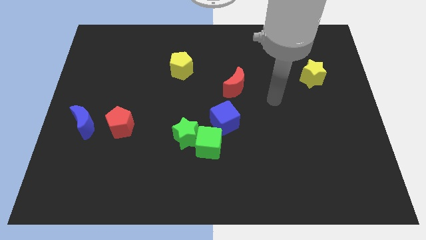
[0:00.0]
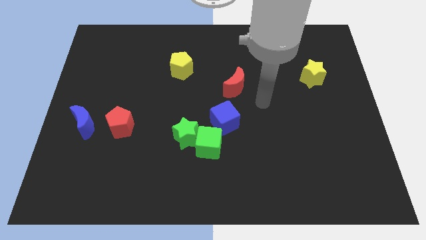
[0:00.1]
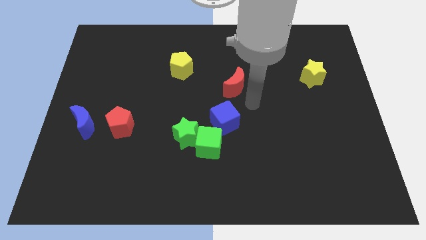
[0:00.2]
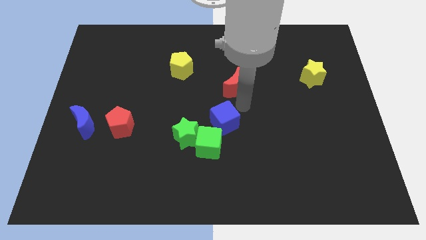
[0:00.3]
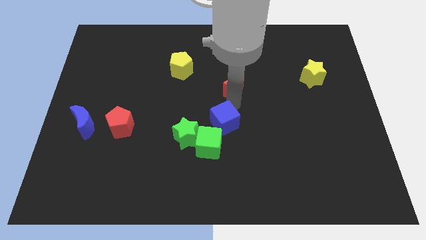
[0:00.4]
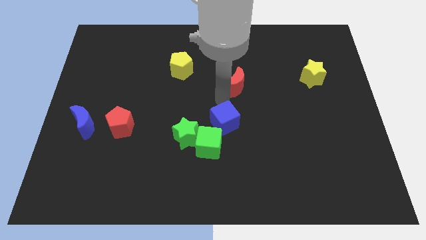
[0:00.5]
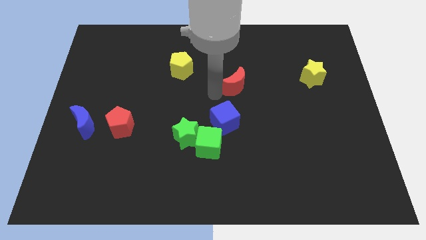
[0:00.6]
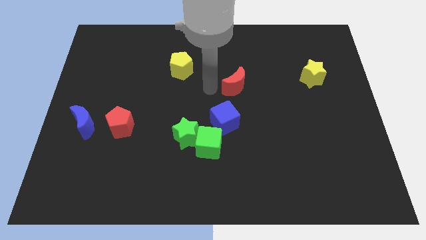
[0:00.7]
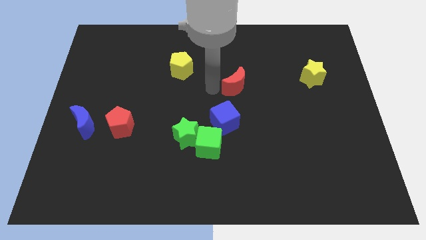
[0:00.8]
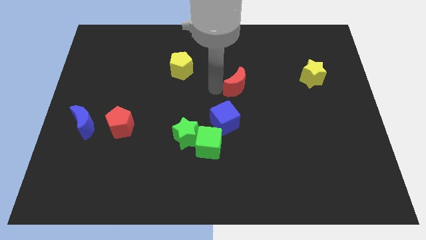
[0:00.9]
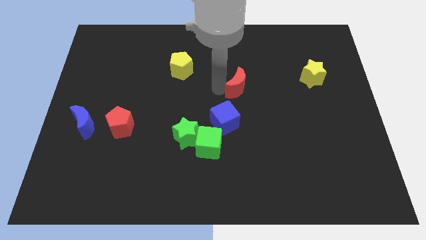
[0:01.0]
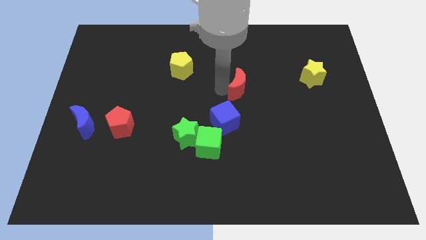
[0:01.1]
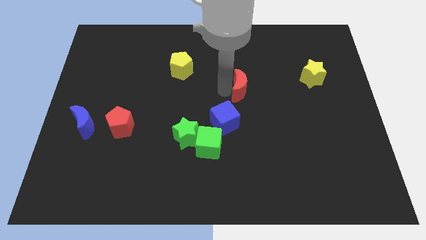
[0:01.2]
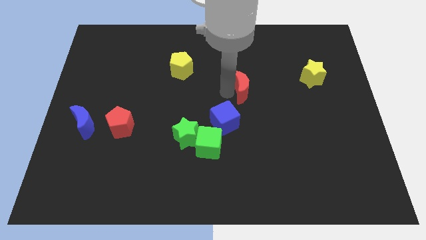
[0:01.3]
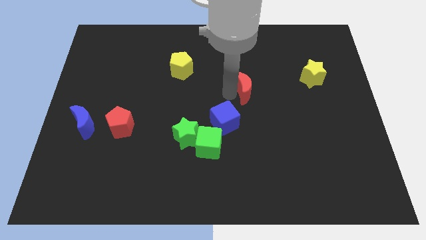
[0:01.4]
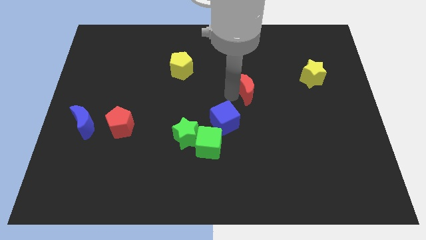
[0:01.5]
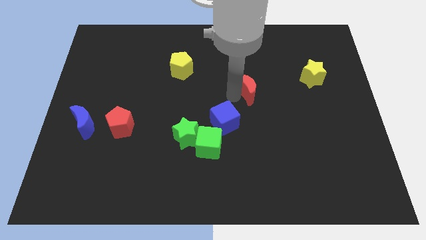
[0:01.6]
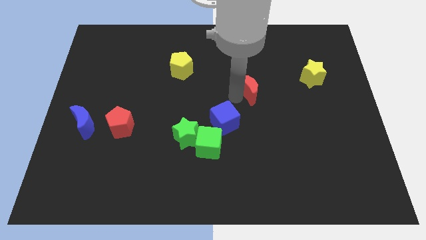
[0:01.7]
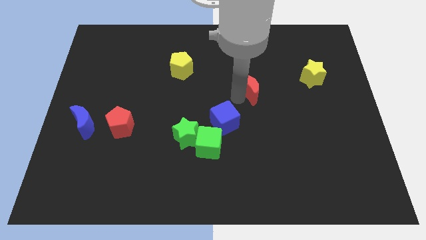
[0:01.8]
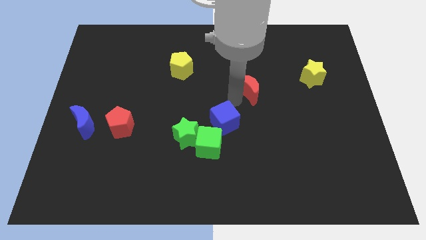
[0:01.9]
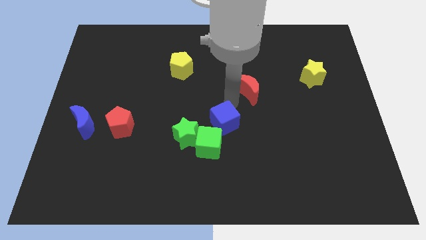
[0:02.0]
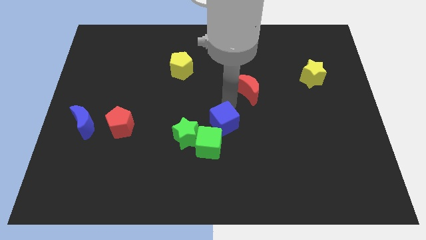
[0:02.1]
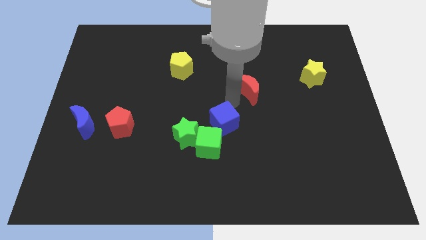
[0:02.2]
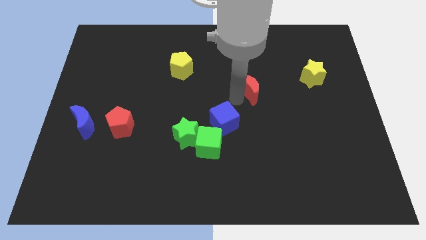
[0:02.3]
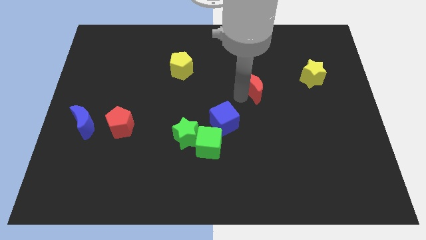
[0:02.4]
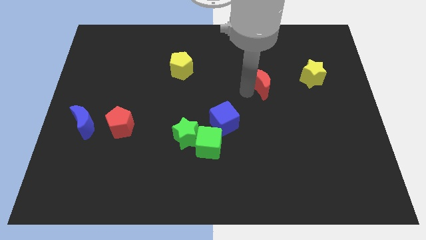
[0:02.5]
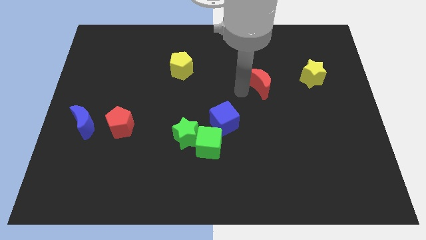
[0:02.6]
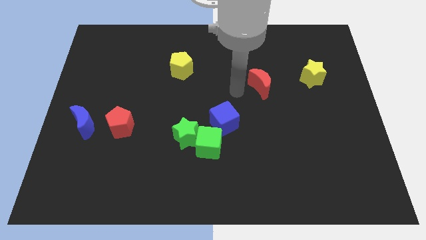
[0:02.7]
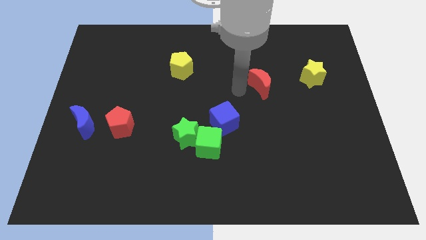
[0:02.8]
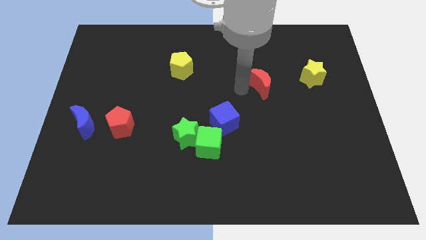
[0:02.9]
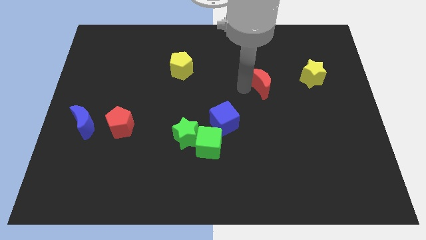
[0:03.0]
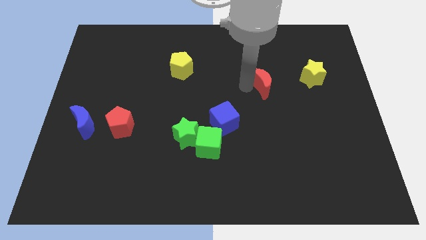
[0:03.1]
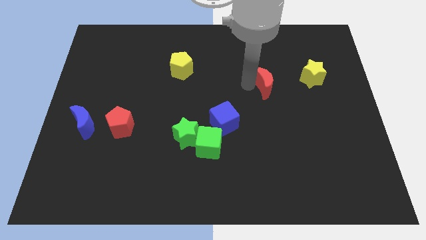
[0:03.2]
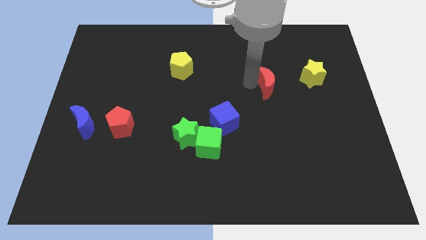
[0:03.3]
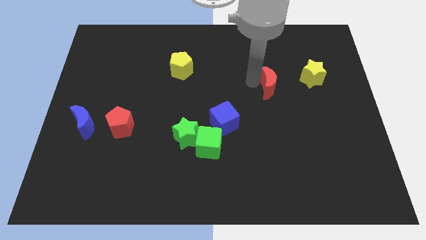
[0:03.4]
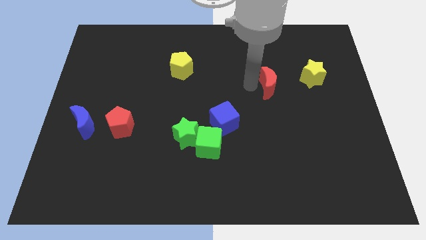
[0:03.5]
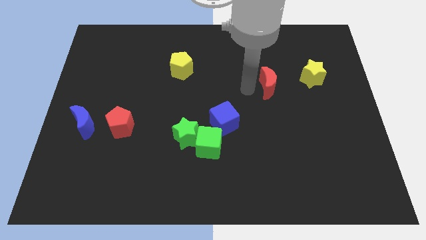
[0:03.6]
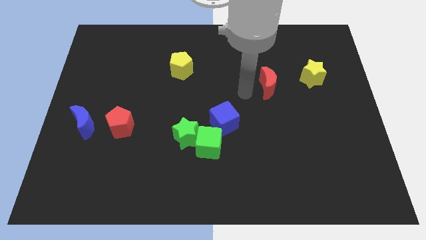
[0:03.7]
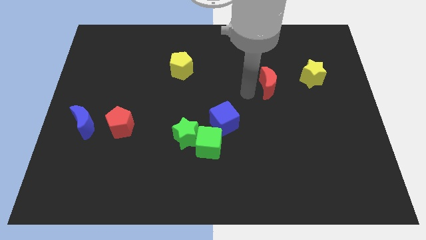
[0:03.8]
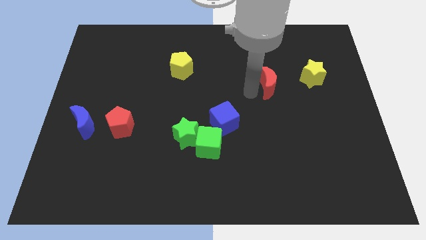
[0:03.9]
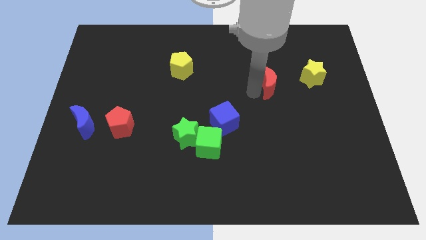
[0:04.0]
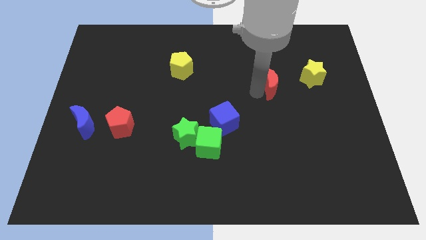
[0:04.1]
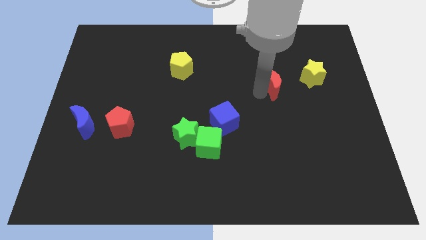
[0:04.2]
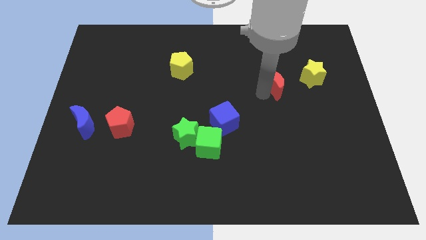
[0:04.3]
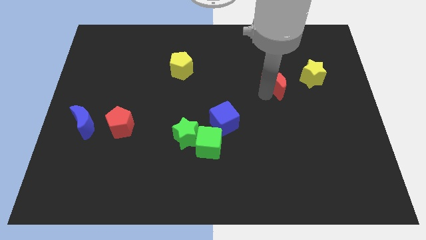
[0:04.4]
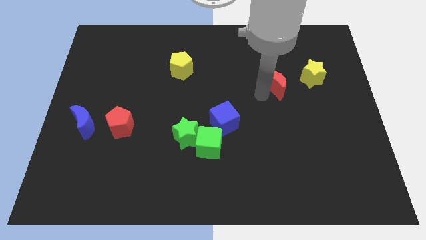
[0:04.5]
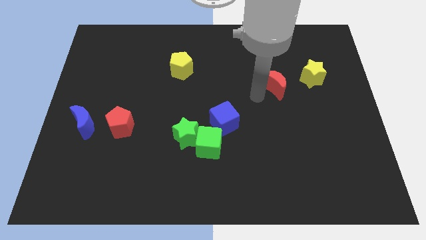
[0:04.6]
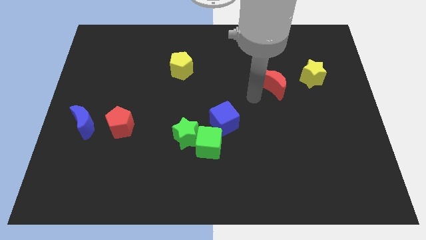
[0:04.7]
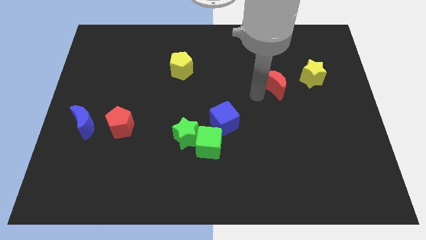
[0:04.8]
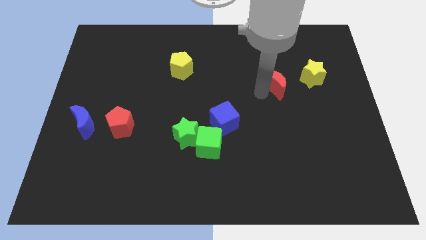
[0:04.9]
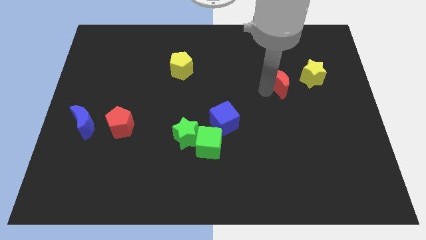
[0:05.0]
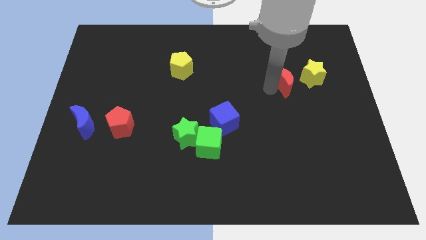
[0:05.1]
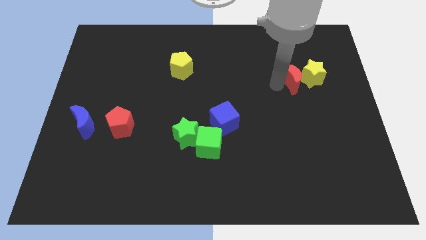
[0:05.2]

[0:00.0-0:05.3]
move the red moon to the yellow star

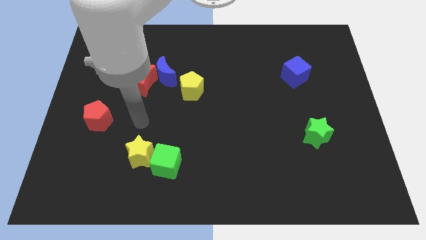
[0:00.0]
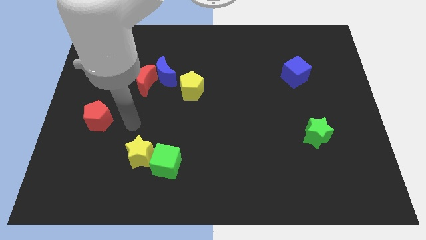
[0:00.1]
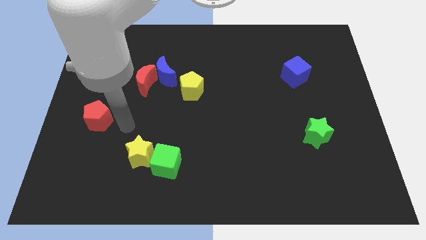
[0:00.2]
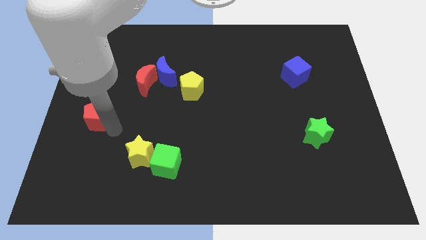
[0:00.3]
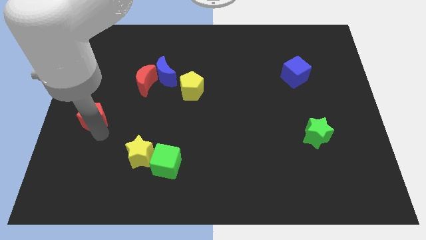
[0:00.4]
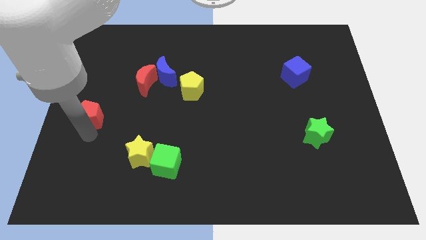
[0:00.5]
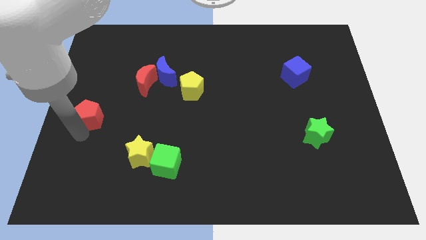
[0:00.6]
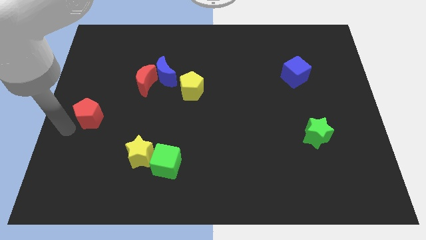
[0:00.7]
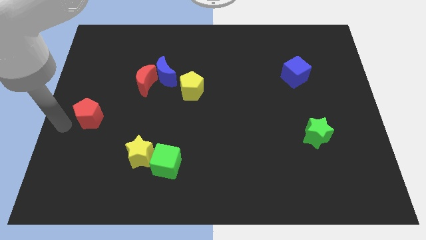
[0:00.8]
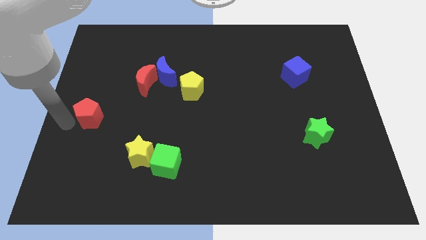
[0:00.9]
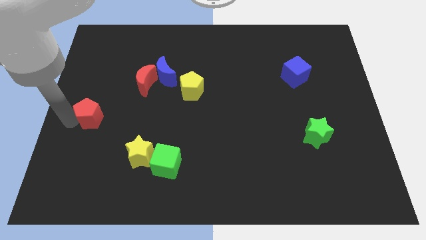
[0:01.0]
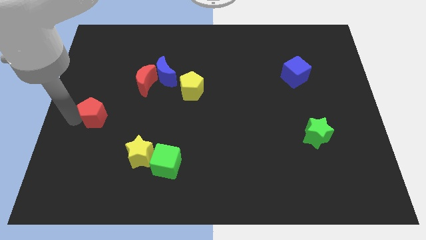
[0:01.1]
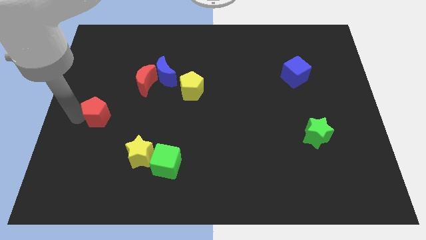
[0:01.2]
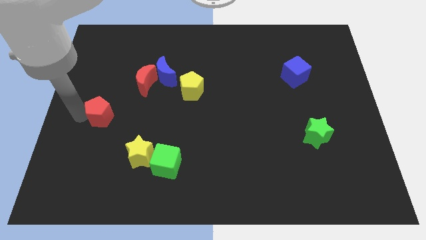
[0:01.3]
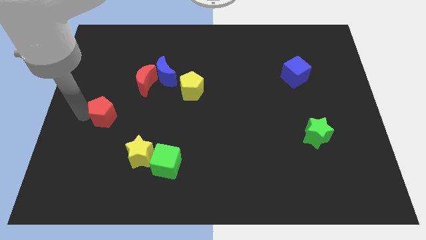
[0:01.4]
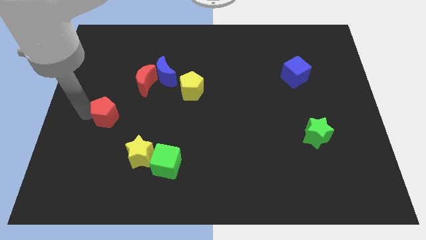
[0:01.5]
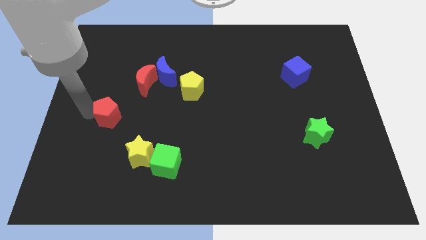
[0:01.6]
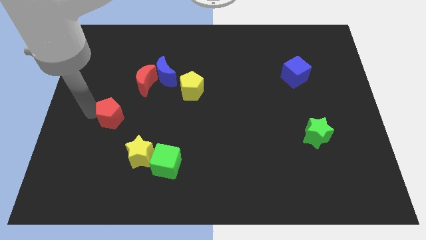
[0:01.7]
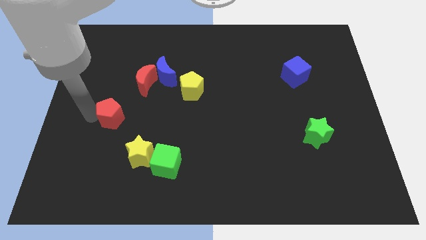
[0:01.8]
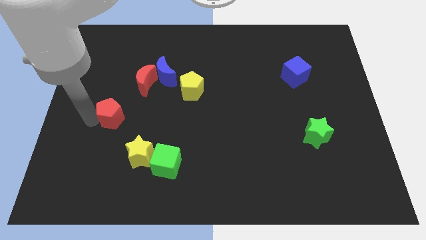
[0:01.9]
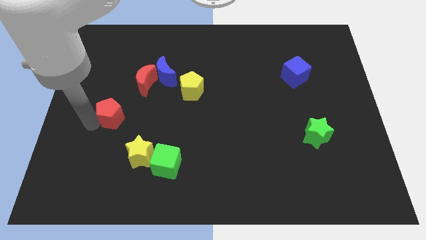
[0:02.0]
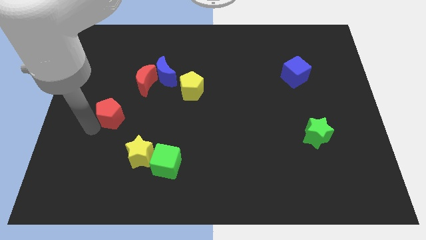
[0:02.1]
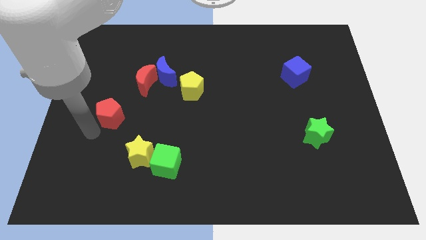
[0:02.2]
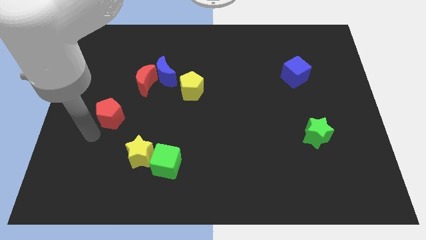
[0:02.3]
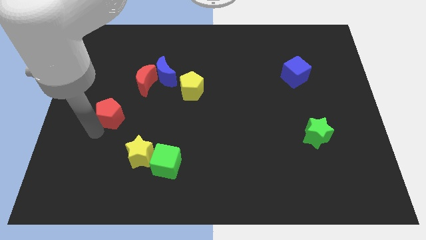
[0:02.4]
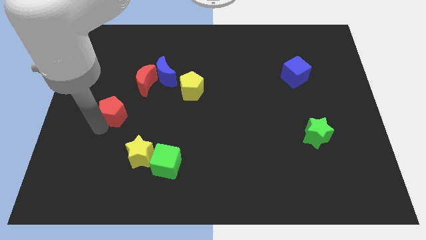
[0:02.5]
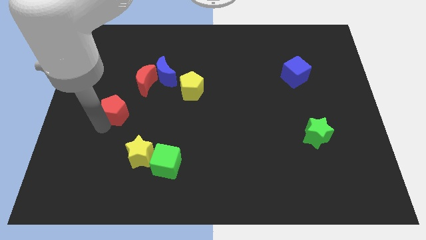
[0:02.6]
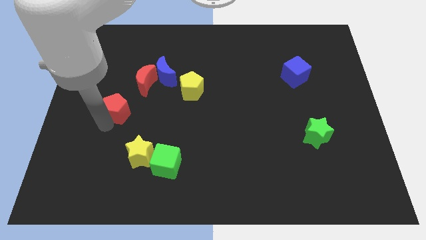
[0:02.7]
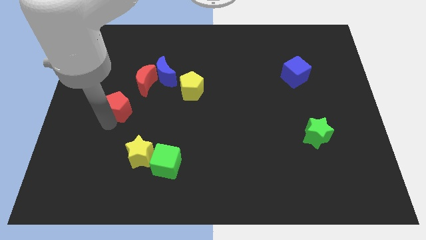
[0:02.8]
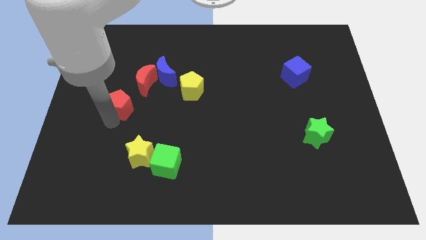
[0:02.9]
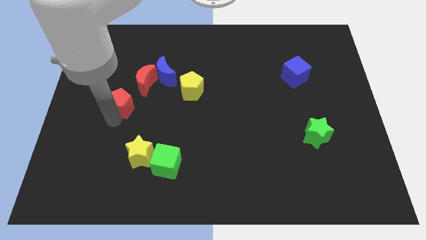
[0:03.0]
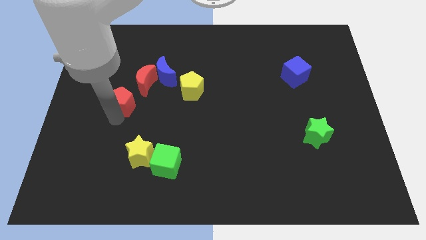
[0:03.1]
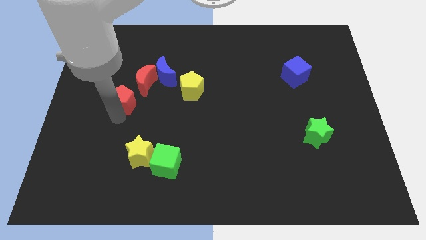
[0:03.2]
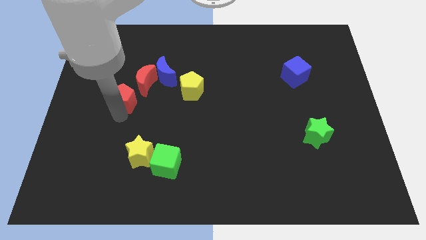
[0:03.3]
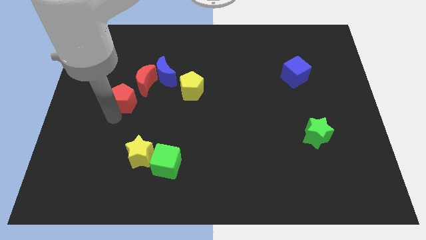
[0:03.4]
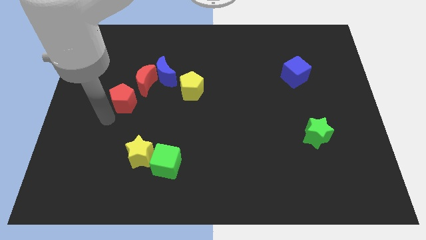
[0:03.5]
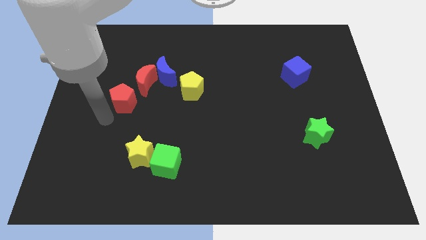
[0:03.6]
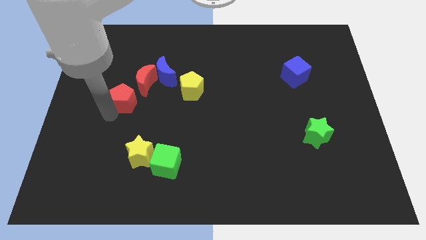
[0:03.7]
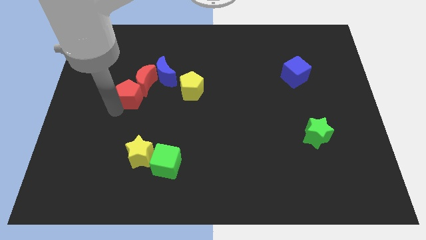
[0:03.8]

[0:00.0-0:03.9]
slide the red pentagon towards the red moon
